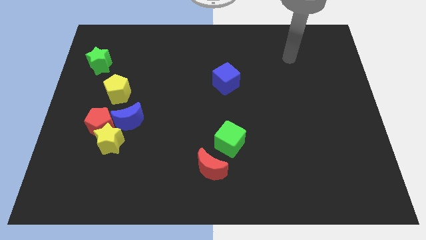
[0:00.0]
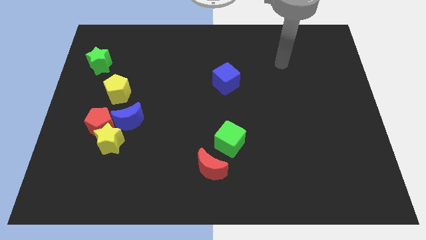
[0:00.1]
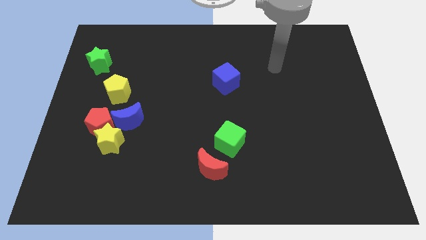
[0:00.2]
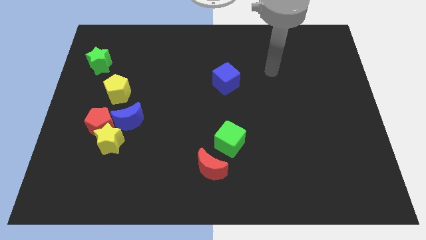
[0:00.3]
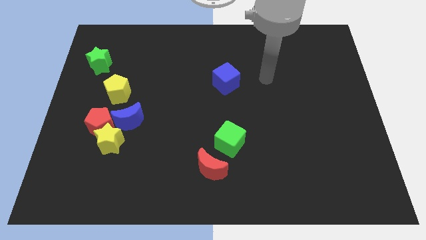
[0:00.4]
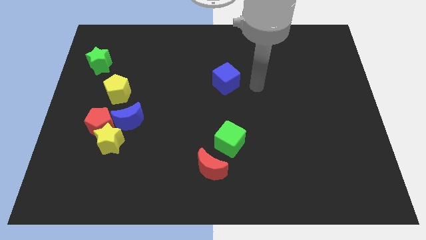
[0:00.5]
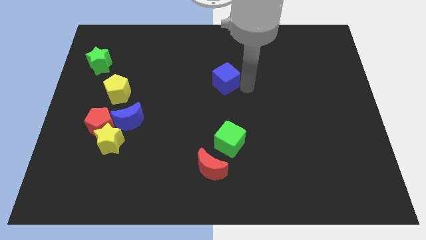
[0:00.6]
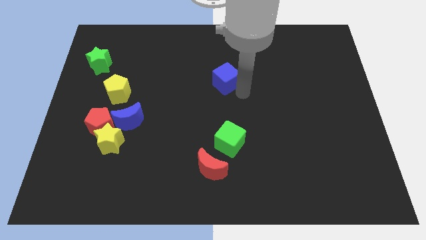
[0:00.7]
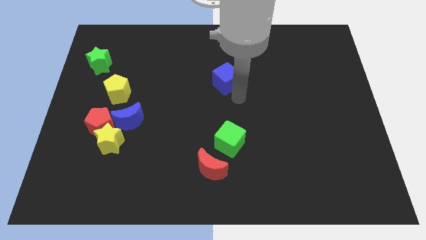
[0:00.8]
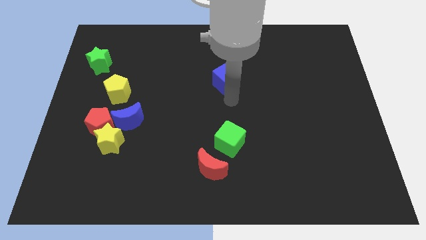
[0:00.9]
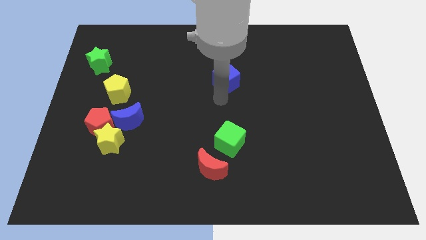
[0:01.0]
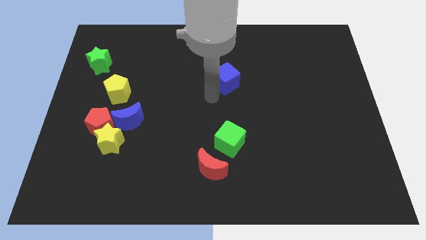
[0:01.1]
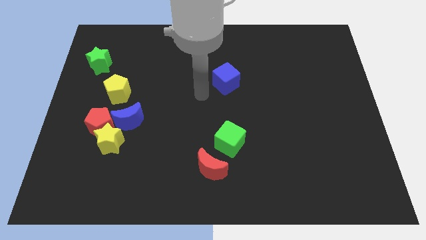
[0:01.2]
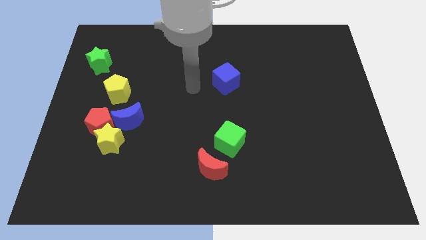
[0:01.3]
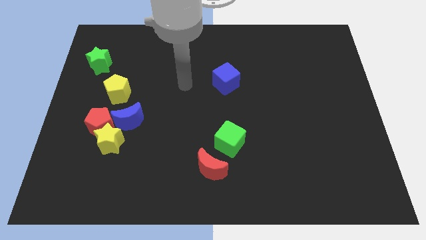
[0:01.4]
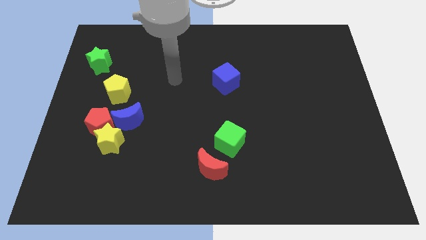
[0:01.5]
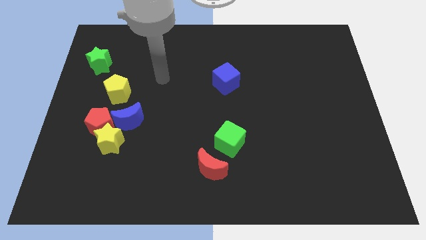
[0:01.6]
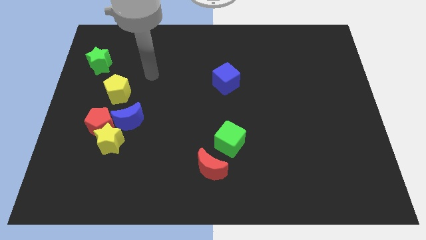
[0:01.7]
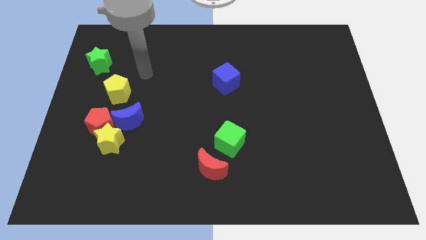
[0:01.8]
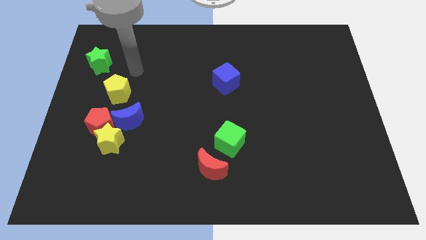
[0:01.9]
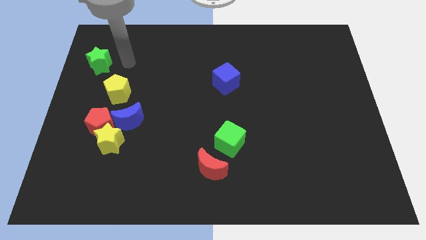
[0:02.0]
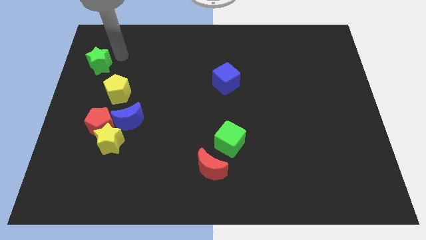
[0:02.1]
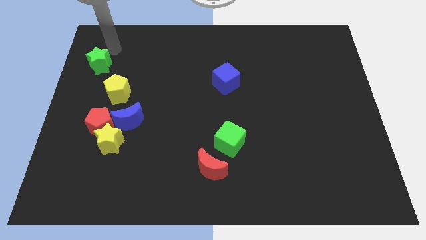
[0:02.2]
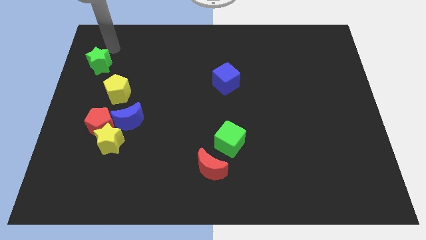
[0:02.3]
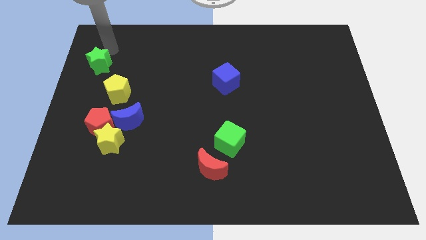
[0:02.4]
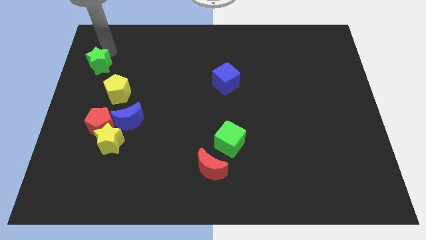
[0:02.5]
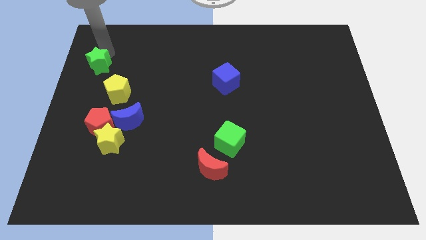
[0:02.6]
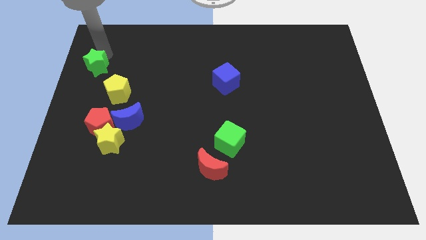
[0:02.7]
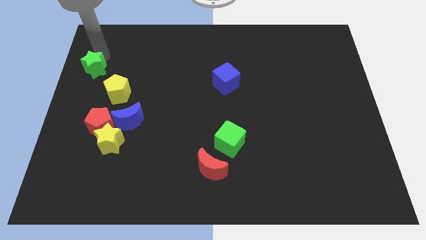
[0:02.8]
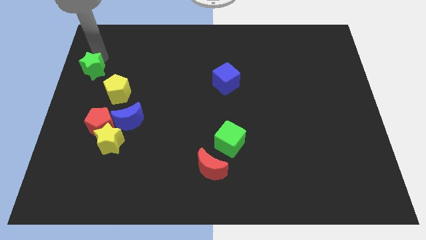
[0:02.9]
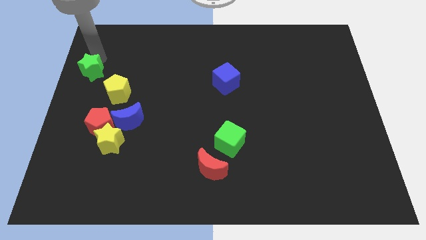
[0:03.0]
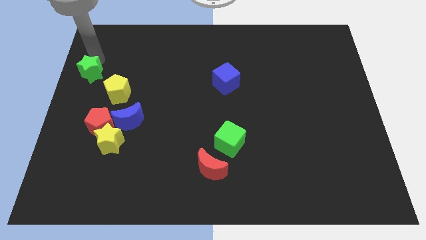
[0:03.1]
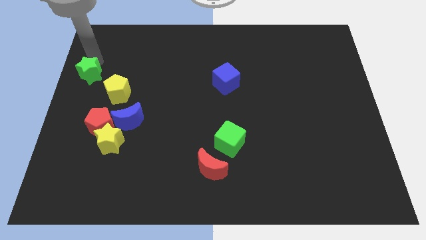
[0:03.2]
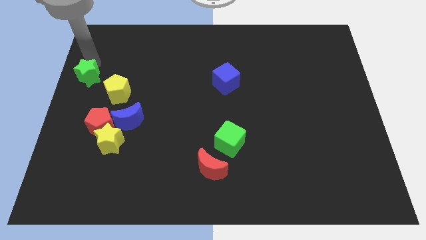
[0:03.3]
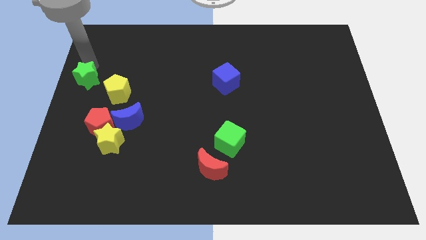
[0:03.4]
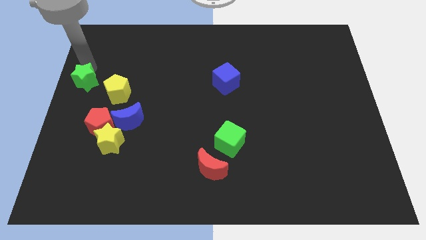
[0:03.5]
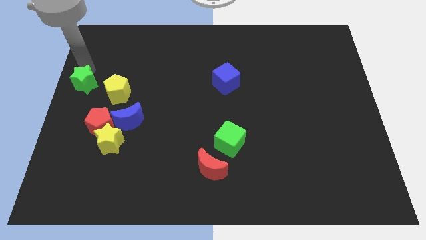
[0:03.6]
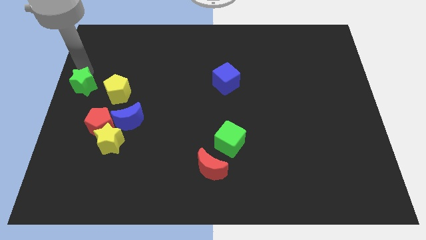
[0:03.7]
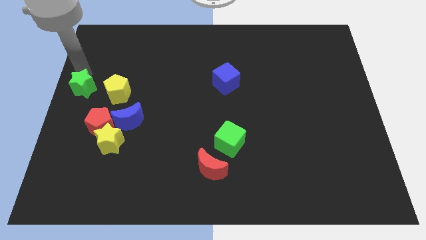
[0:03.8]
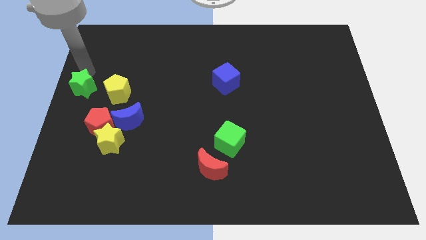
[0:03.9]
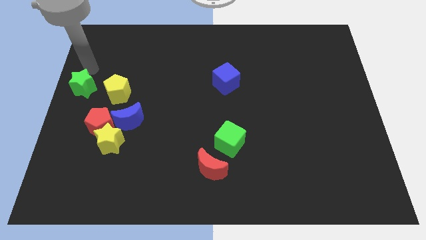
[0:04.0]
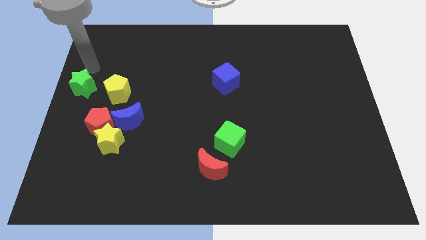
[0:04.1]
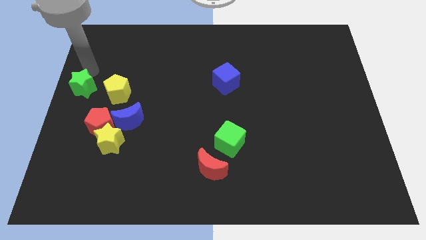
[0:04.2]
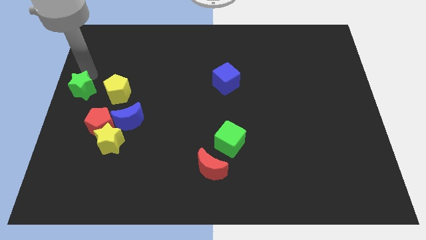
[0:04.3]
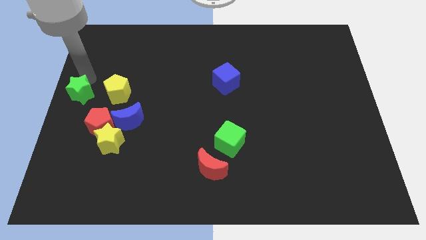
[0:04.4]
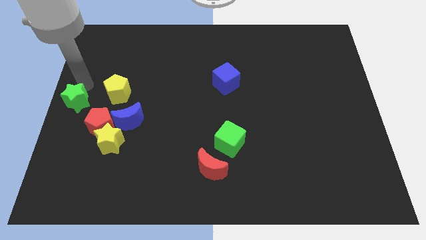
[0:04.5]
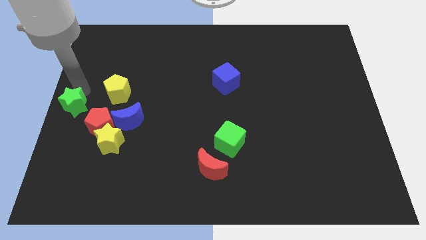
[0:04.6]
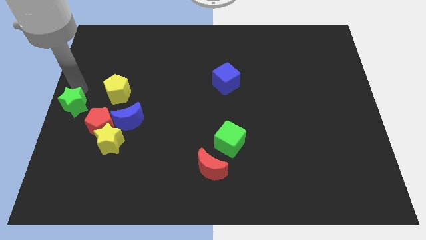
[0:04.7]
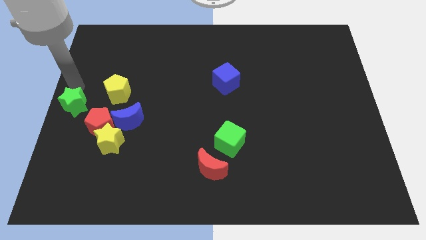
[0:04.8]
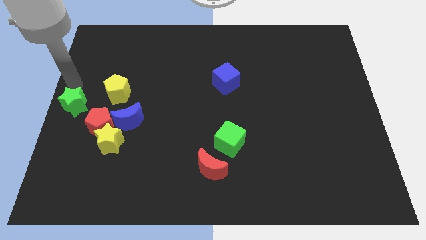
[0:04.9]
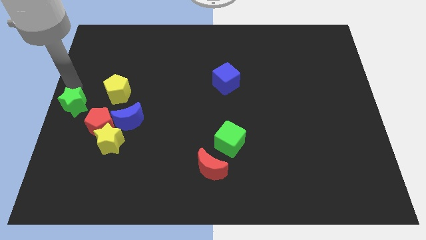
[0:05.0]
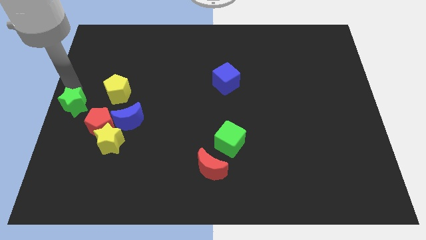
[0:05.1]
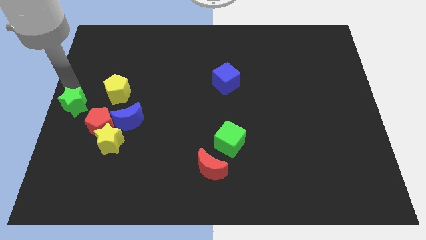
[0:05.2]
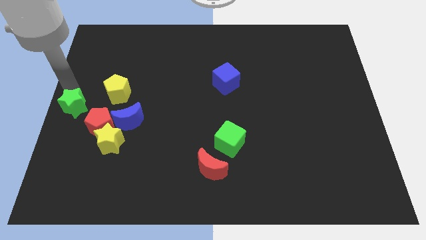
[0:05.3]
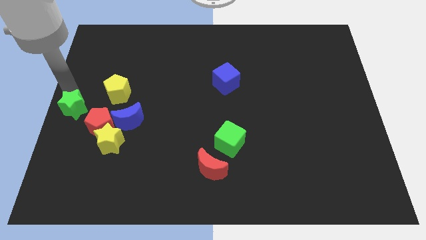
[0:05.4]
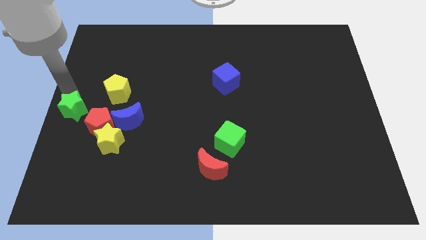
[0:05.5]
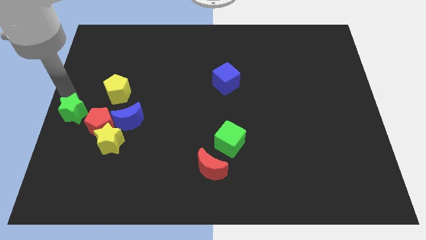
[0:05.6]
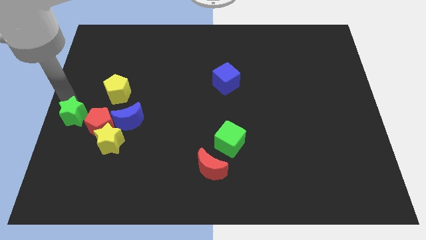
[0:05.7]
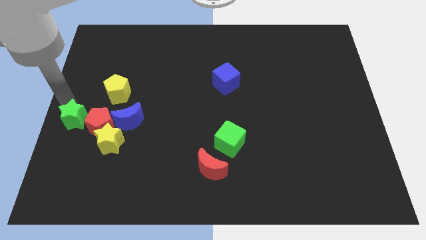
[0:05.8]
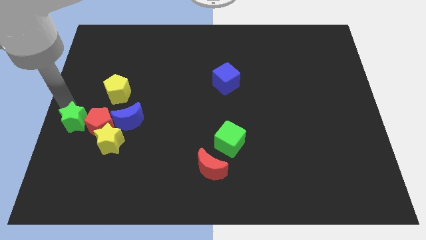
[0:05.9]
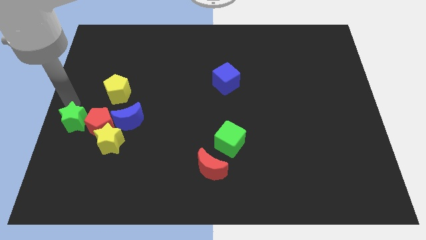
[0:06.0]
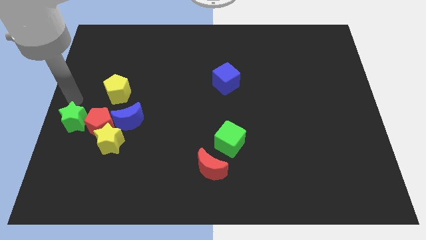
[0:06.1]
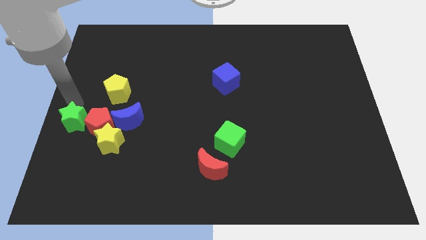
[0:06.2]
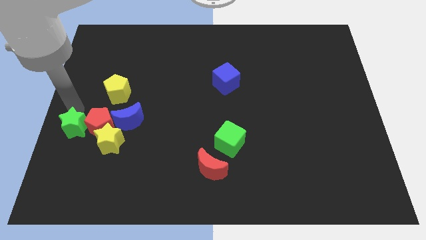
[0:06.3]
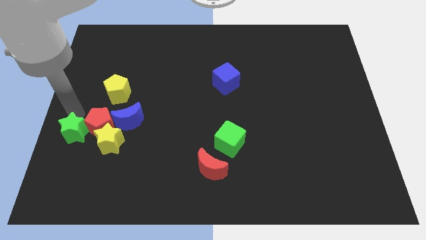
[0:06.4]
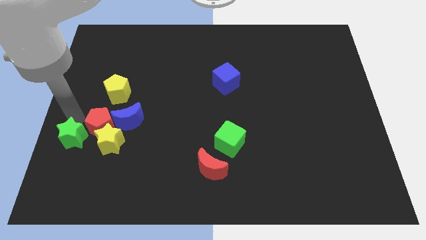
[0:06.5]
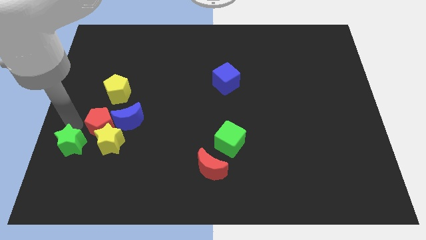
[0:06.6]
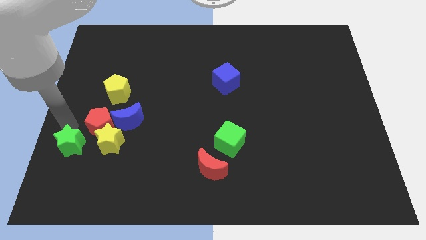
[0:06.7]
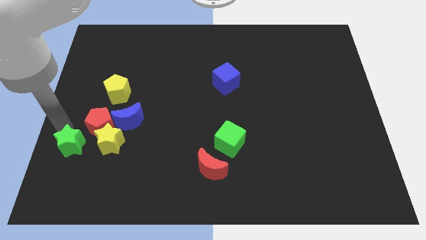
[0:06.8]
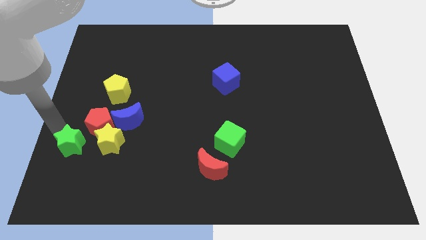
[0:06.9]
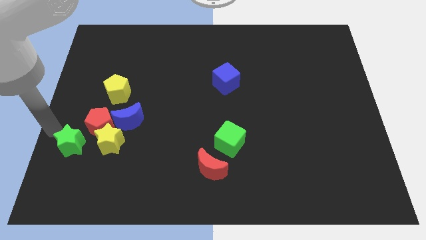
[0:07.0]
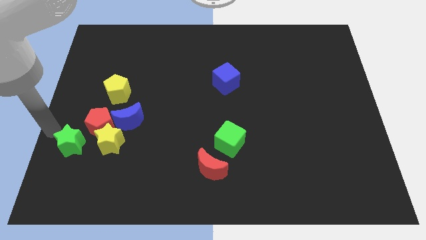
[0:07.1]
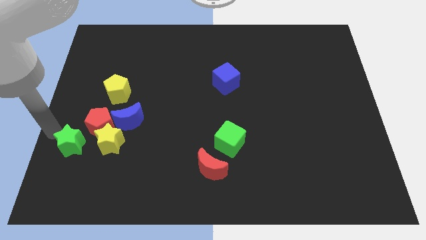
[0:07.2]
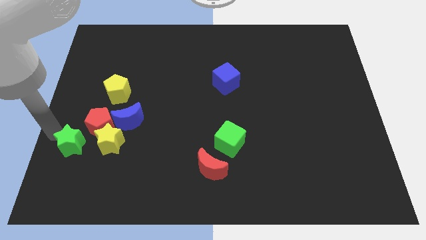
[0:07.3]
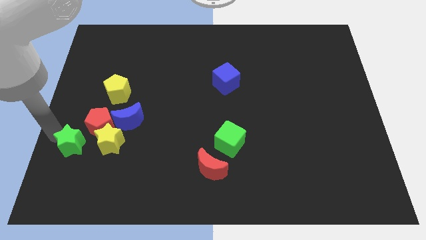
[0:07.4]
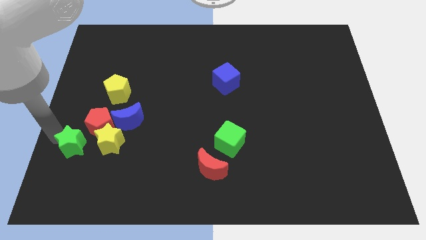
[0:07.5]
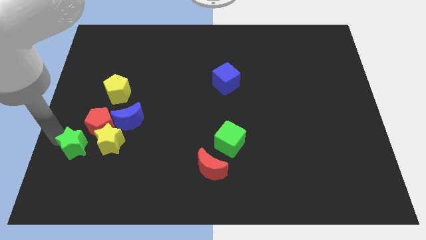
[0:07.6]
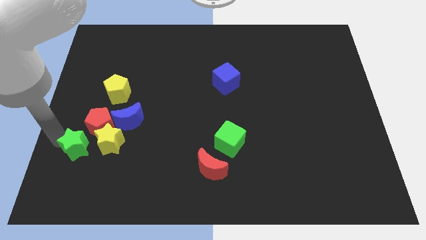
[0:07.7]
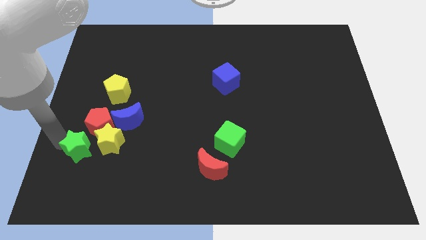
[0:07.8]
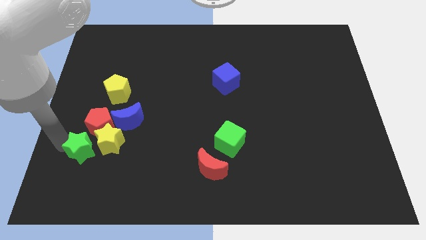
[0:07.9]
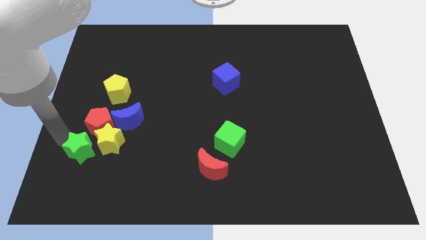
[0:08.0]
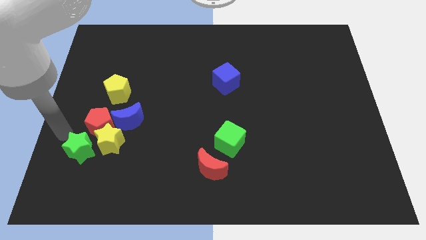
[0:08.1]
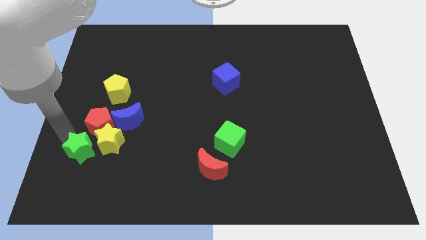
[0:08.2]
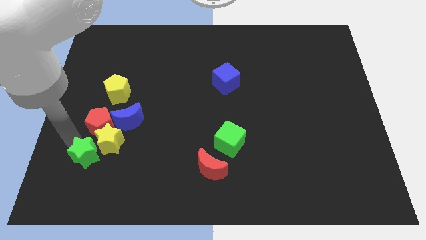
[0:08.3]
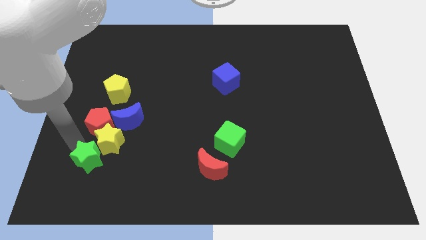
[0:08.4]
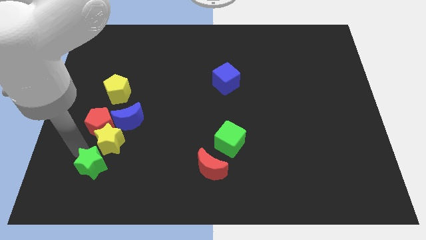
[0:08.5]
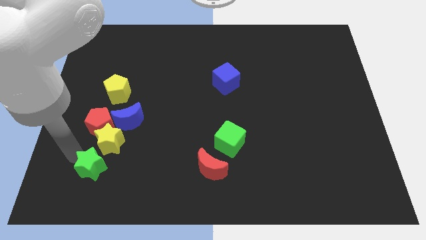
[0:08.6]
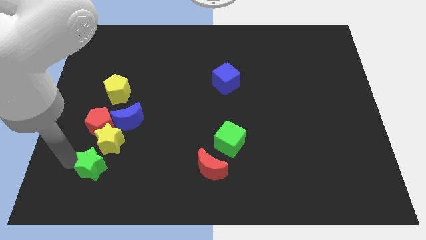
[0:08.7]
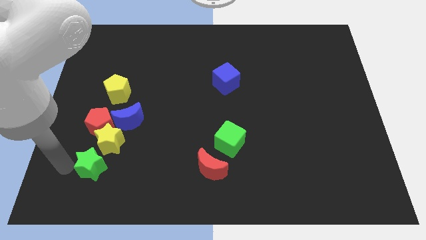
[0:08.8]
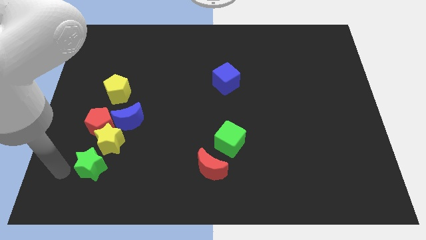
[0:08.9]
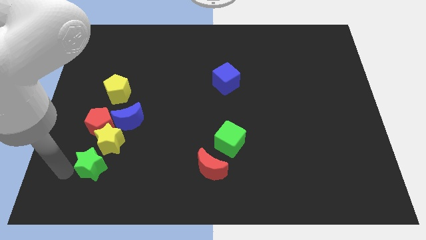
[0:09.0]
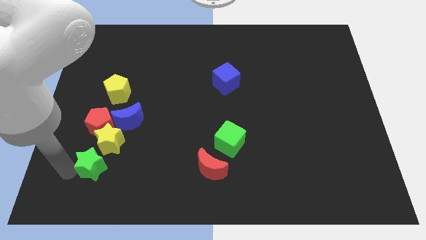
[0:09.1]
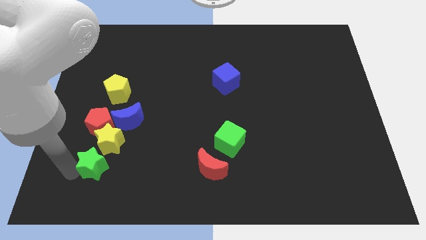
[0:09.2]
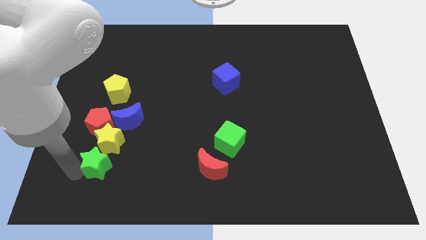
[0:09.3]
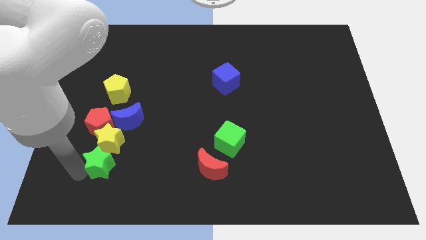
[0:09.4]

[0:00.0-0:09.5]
move the green star below the blue moon
